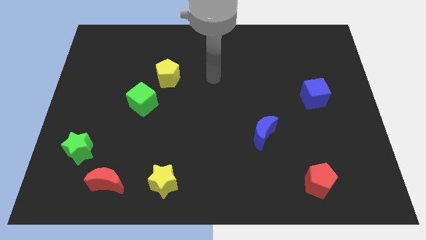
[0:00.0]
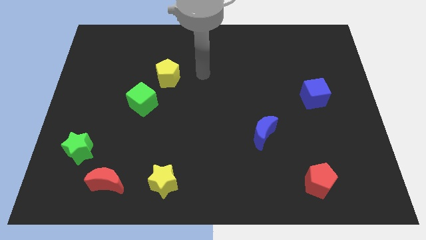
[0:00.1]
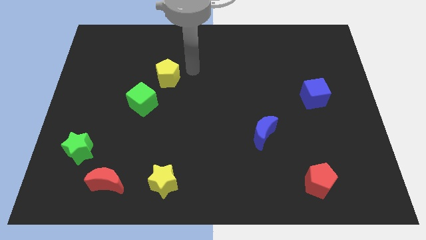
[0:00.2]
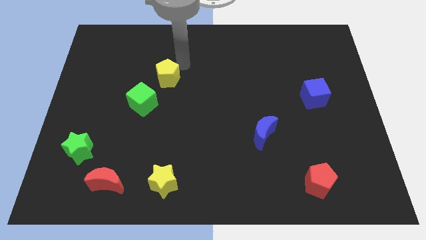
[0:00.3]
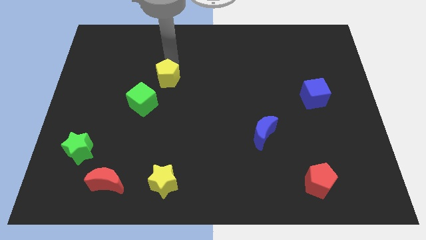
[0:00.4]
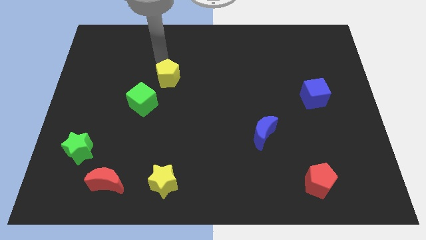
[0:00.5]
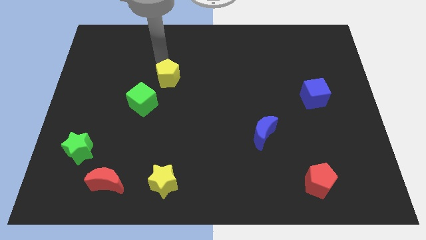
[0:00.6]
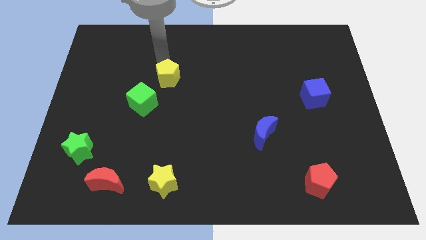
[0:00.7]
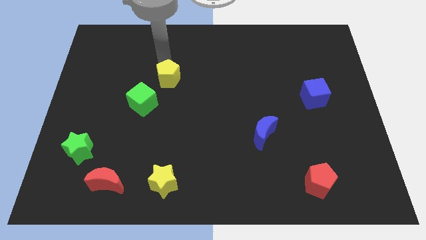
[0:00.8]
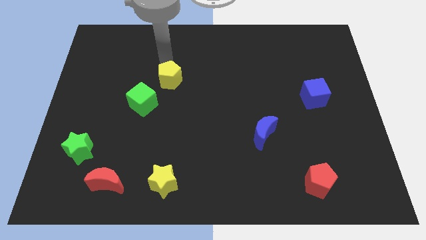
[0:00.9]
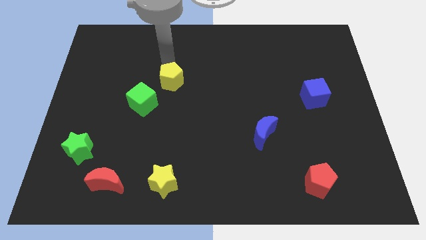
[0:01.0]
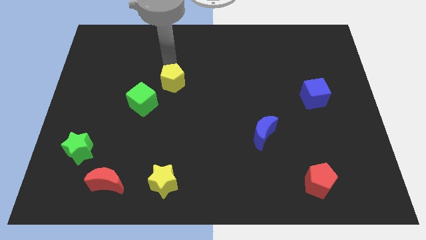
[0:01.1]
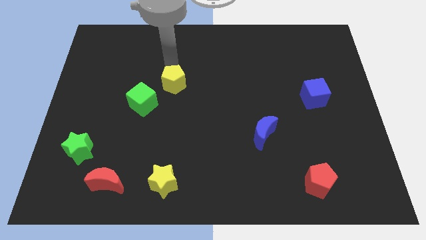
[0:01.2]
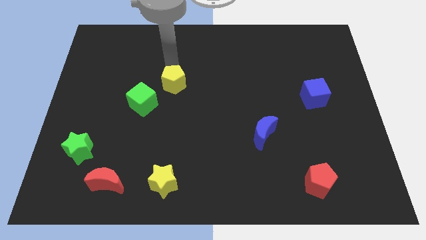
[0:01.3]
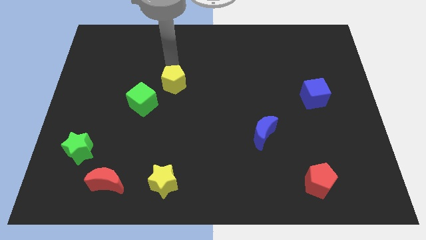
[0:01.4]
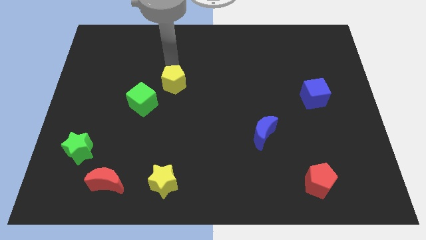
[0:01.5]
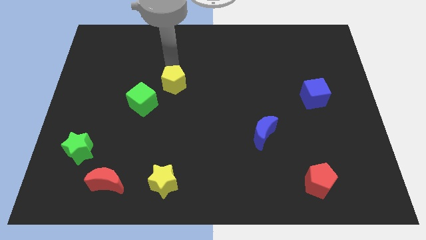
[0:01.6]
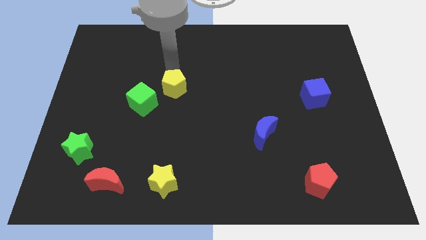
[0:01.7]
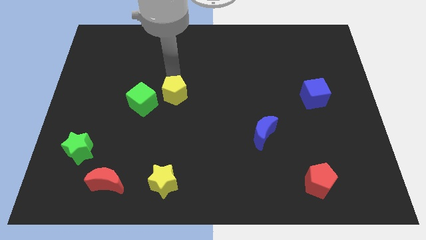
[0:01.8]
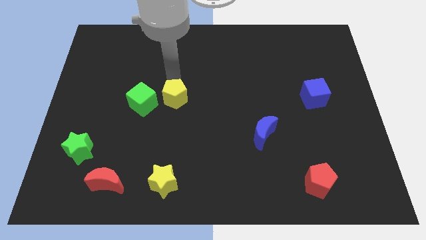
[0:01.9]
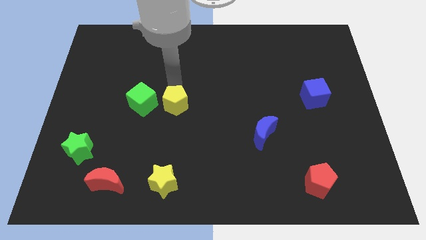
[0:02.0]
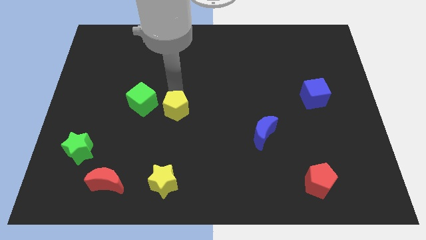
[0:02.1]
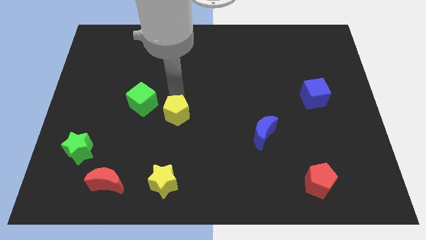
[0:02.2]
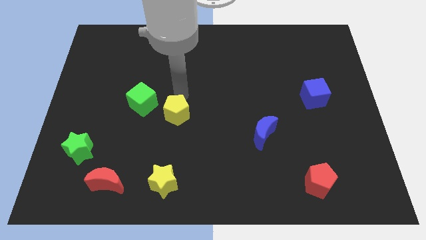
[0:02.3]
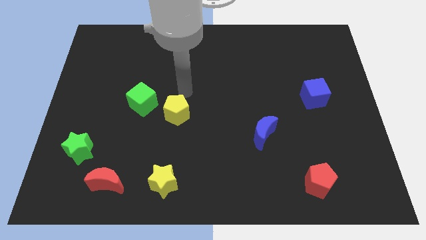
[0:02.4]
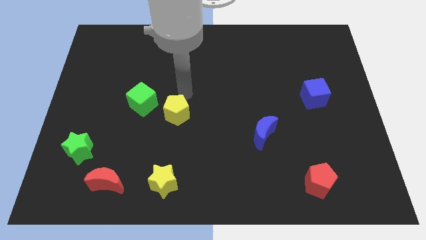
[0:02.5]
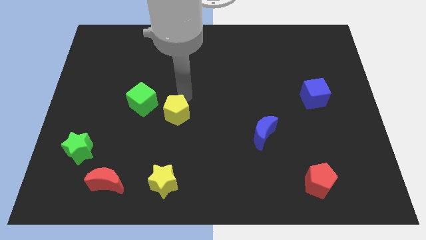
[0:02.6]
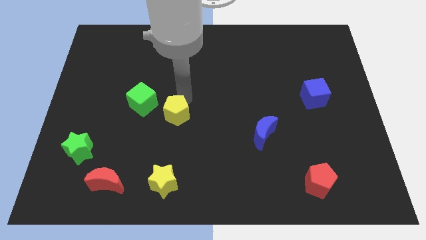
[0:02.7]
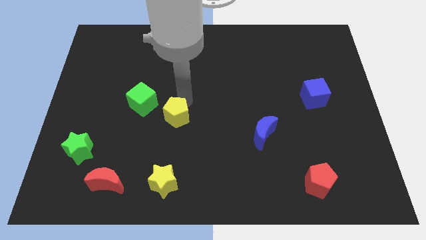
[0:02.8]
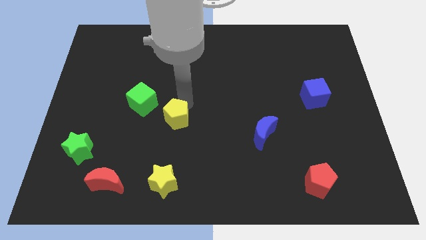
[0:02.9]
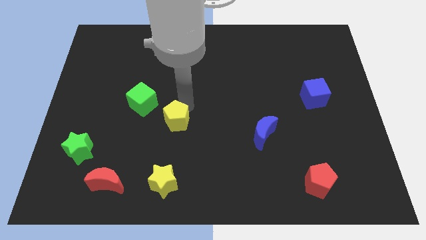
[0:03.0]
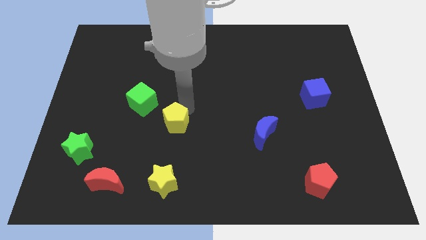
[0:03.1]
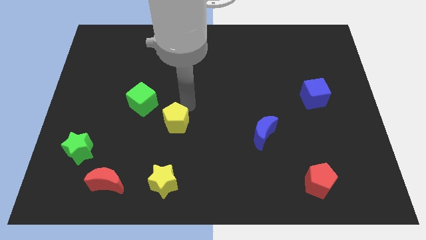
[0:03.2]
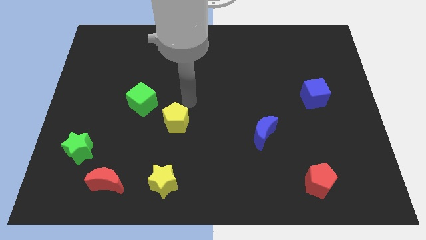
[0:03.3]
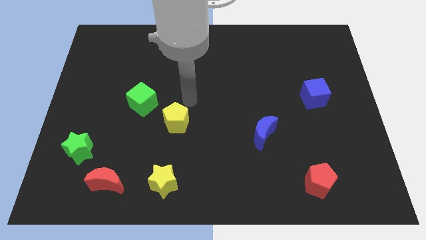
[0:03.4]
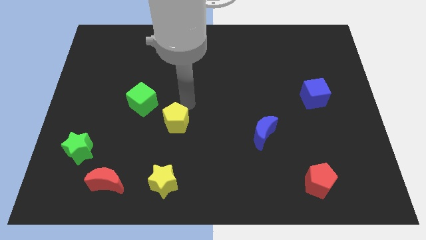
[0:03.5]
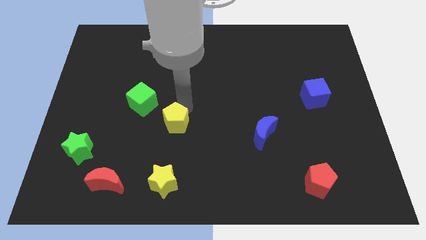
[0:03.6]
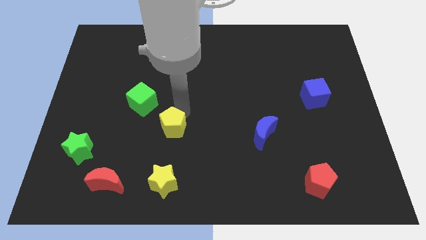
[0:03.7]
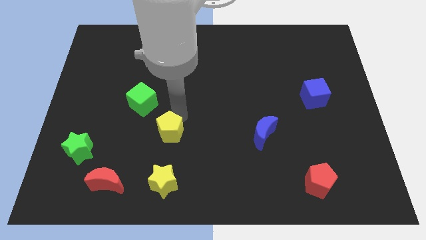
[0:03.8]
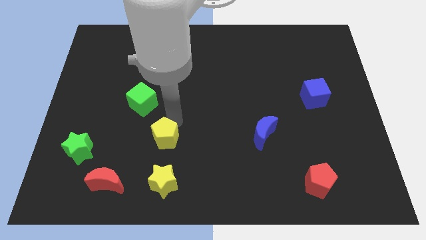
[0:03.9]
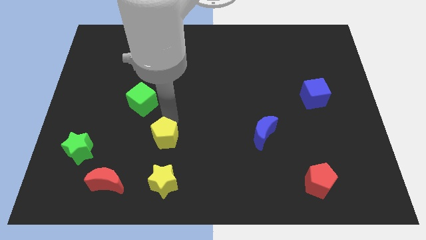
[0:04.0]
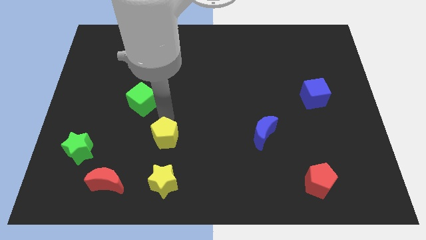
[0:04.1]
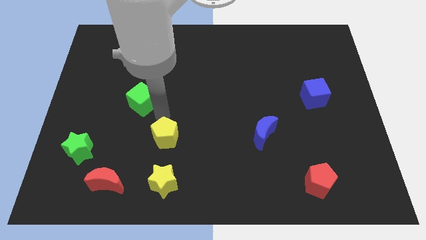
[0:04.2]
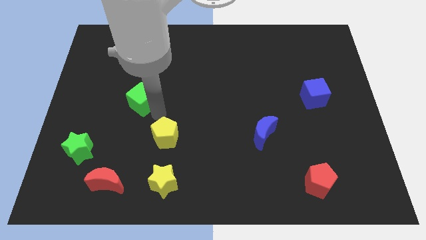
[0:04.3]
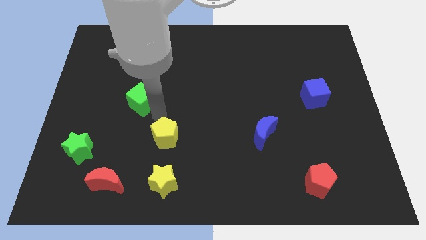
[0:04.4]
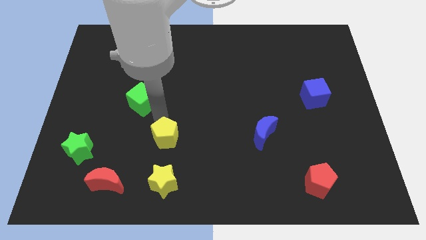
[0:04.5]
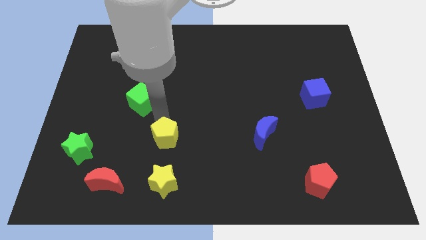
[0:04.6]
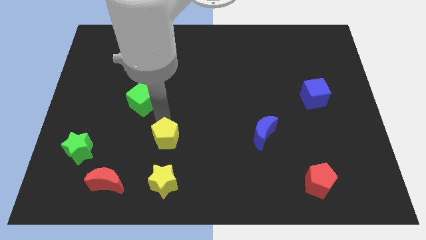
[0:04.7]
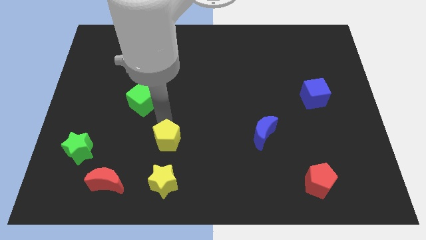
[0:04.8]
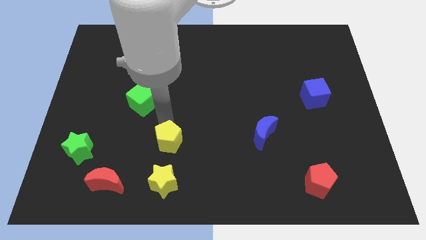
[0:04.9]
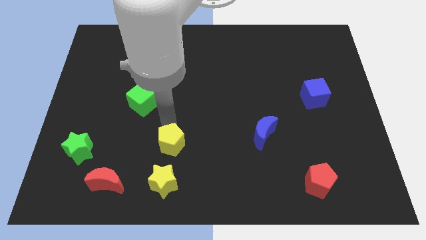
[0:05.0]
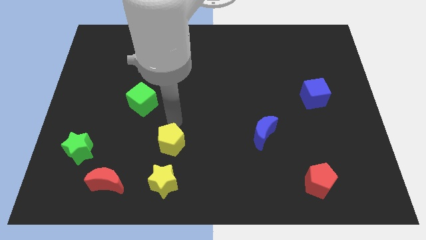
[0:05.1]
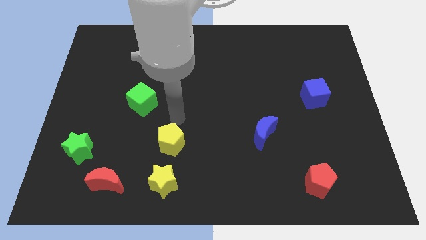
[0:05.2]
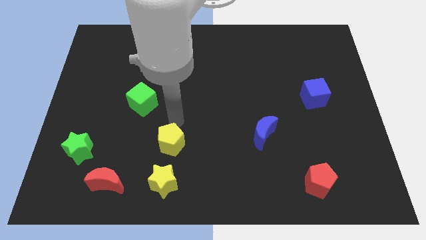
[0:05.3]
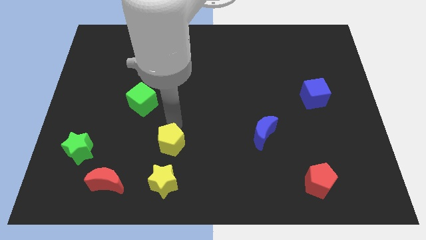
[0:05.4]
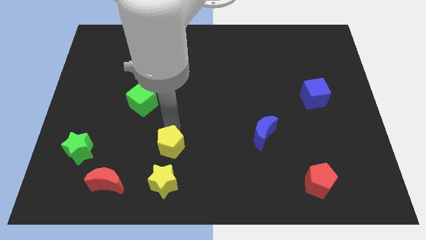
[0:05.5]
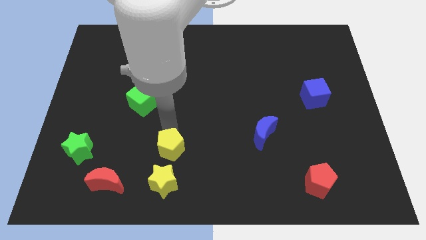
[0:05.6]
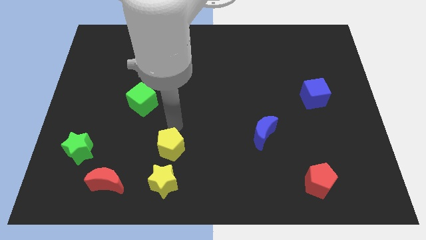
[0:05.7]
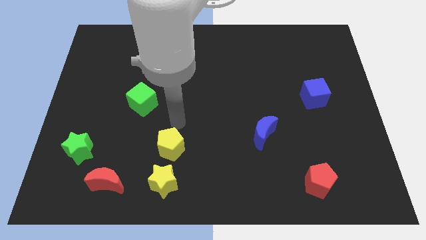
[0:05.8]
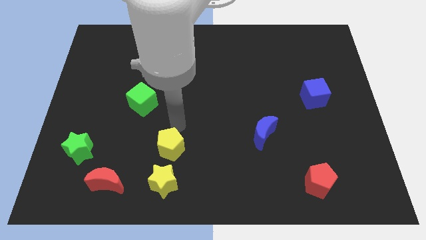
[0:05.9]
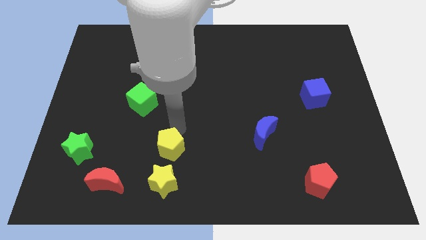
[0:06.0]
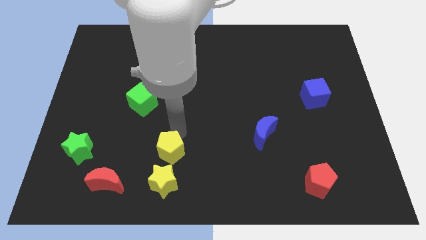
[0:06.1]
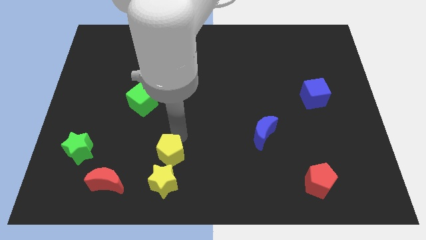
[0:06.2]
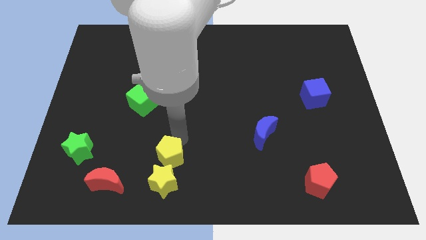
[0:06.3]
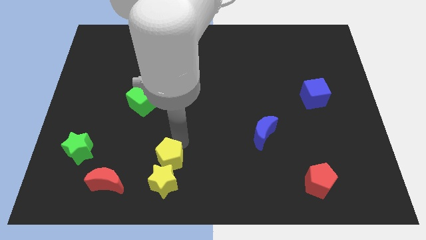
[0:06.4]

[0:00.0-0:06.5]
slide the yellow pentagon to the yellow star
